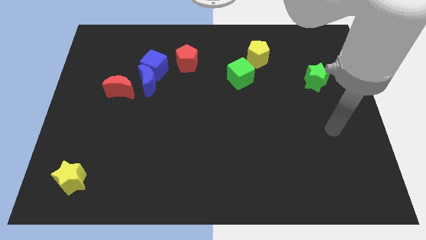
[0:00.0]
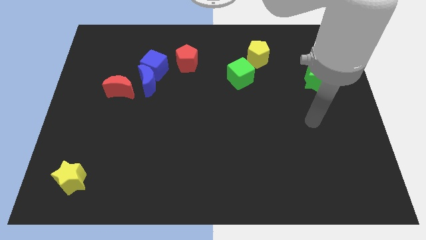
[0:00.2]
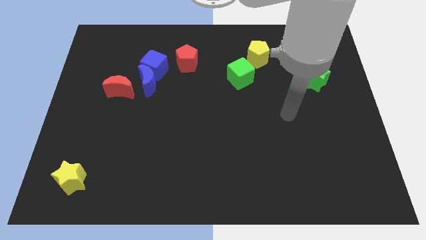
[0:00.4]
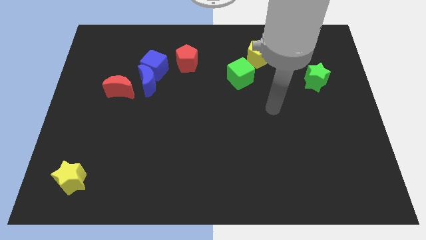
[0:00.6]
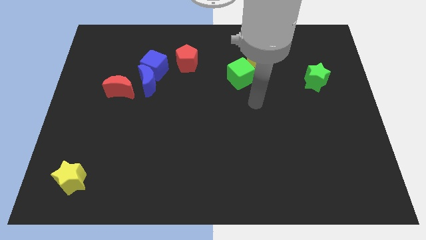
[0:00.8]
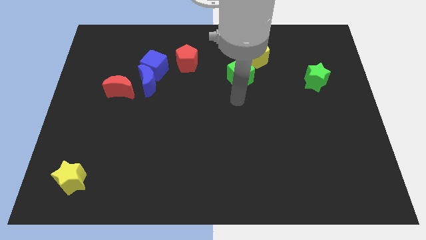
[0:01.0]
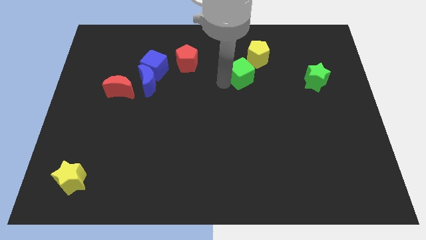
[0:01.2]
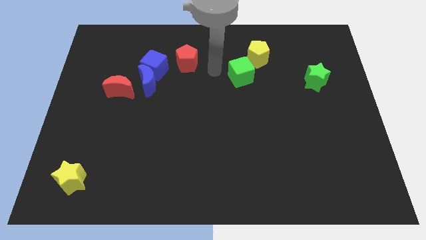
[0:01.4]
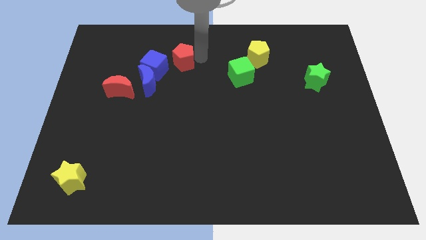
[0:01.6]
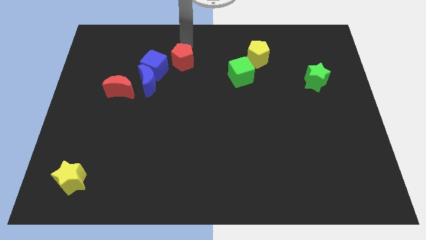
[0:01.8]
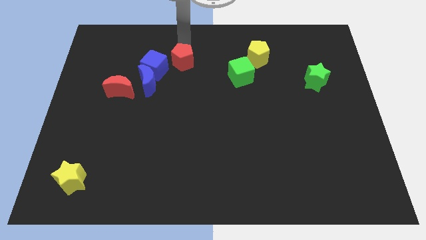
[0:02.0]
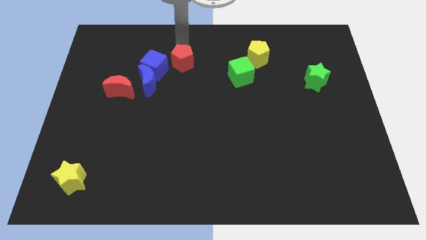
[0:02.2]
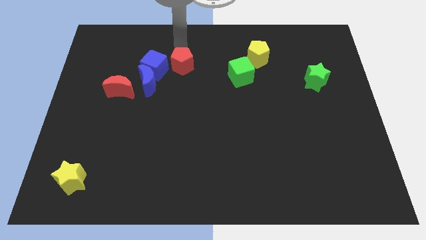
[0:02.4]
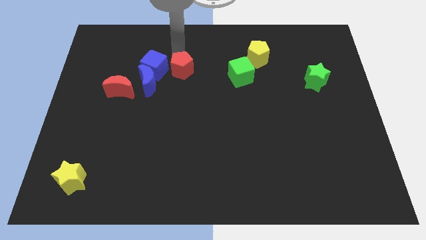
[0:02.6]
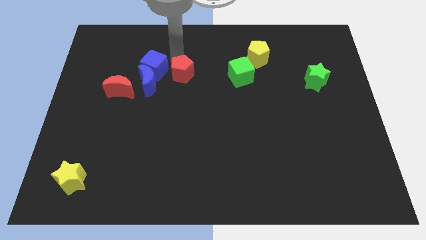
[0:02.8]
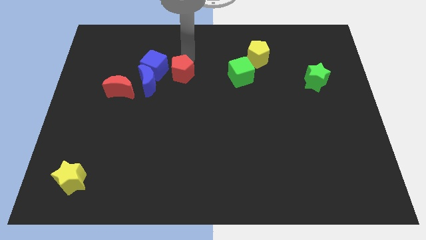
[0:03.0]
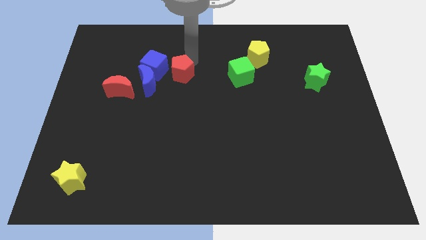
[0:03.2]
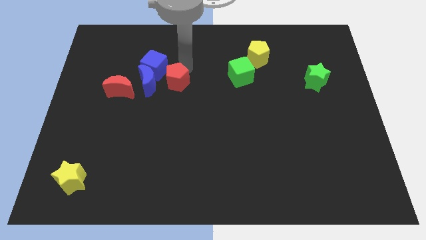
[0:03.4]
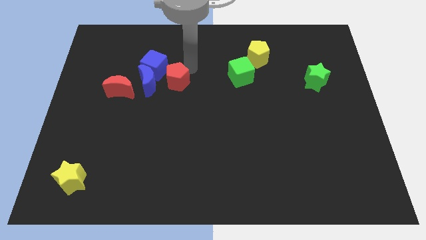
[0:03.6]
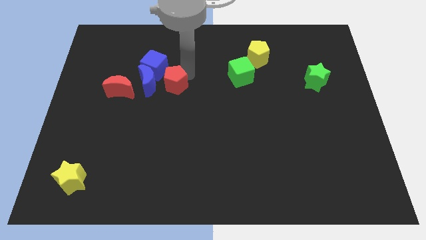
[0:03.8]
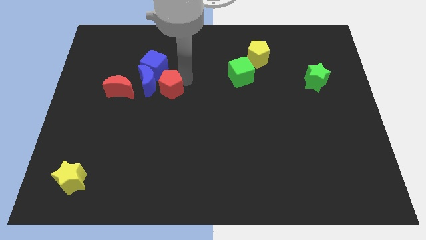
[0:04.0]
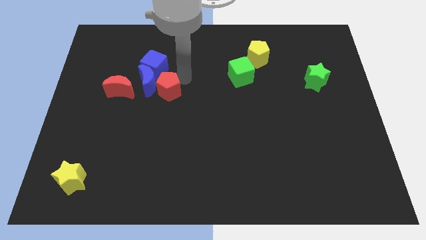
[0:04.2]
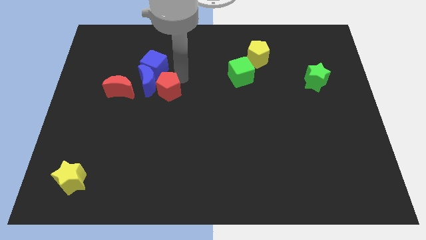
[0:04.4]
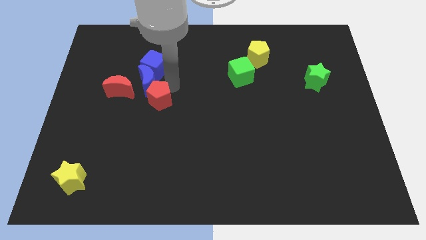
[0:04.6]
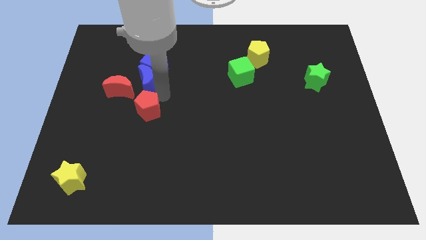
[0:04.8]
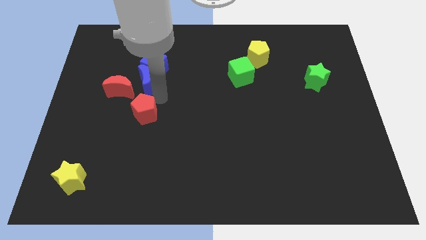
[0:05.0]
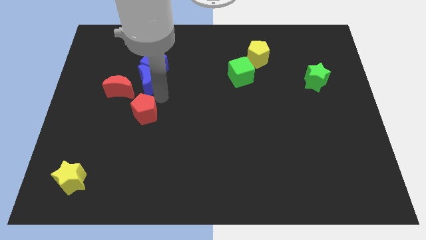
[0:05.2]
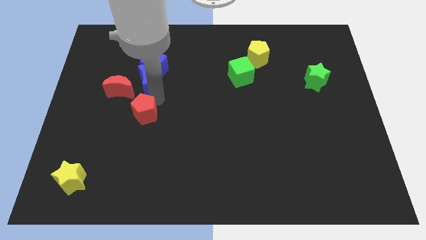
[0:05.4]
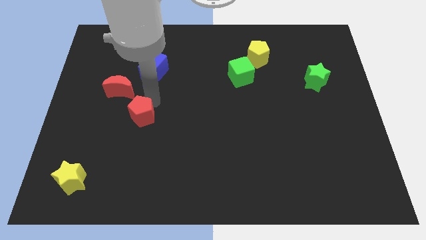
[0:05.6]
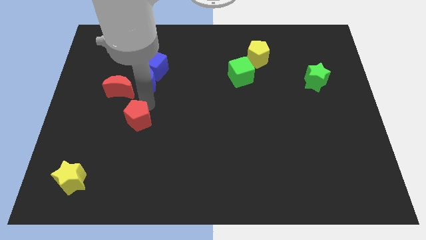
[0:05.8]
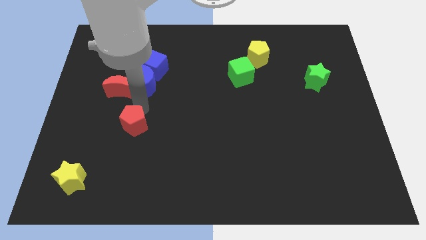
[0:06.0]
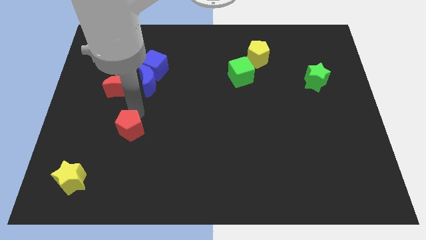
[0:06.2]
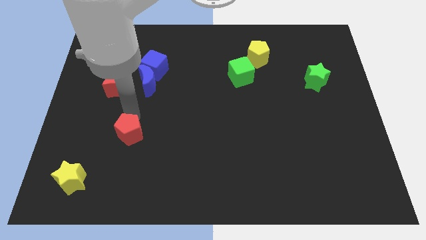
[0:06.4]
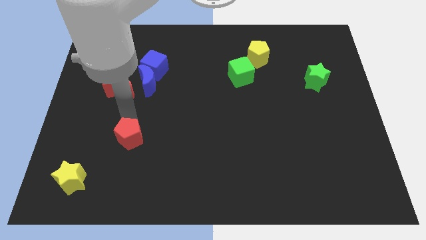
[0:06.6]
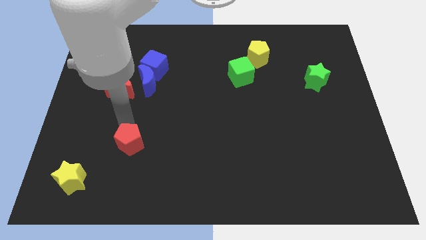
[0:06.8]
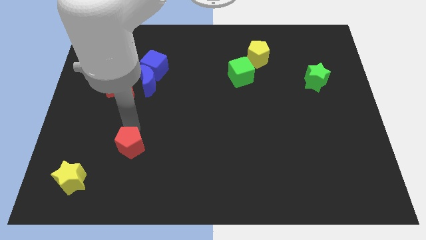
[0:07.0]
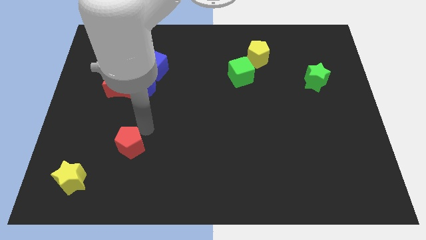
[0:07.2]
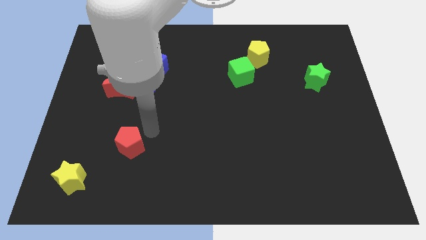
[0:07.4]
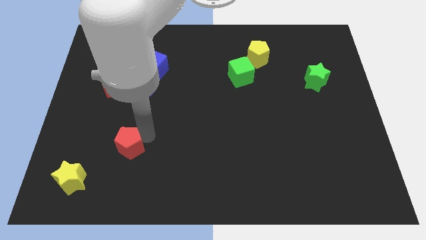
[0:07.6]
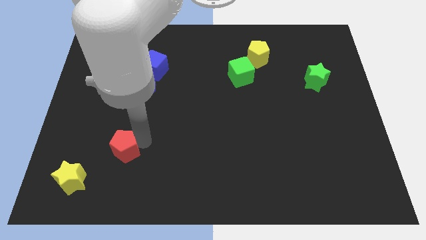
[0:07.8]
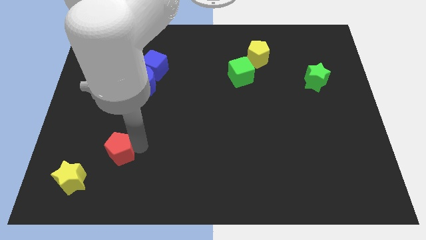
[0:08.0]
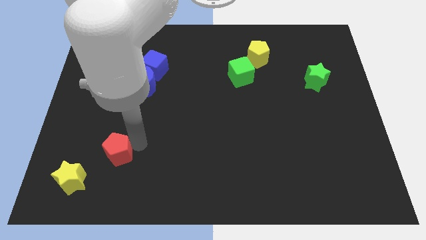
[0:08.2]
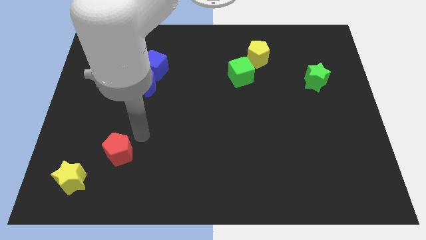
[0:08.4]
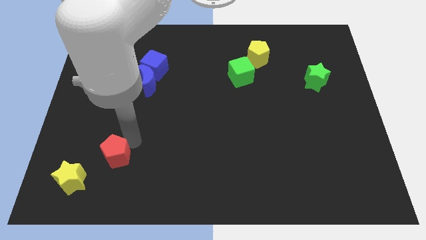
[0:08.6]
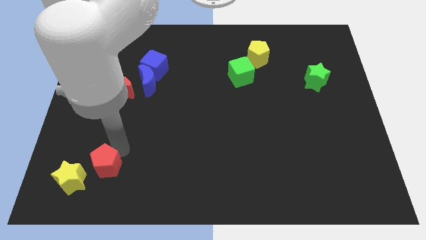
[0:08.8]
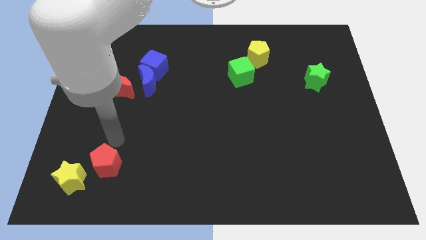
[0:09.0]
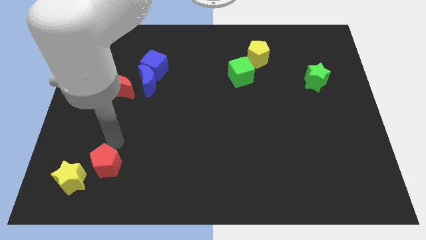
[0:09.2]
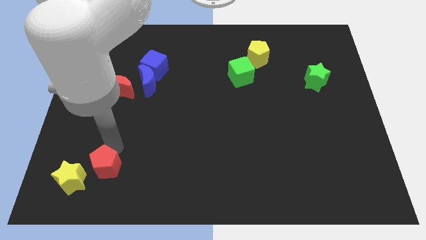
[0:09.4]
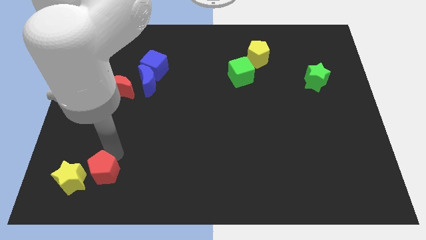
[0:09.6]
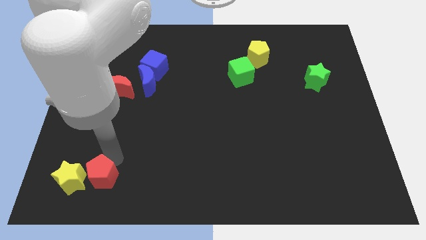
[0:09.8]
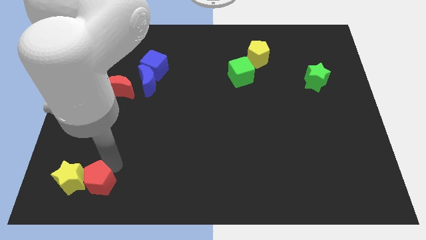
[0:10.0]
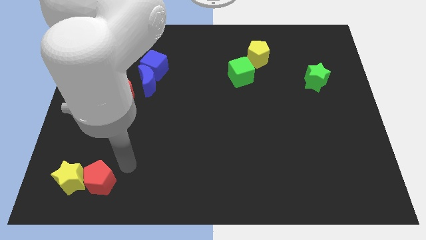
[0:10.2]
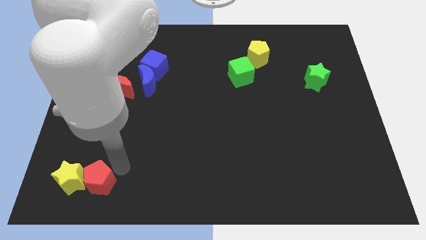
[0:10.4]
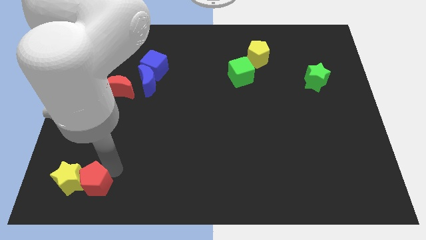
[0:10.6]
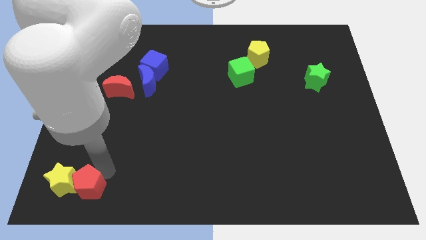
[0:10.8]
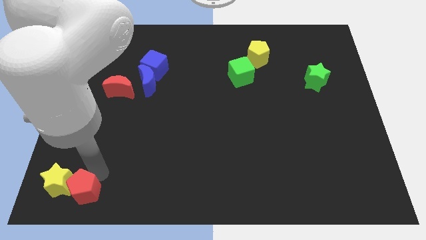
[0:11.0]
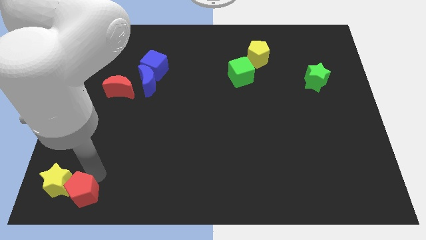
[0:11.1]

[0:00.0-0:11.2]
put the red pentagon to the bottom left of the board
